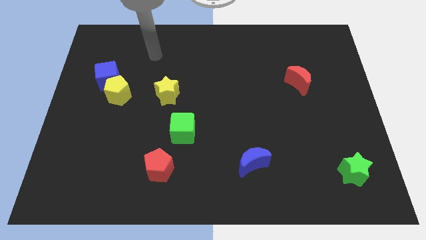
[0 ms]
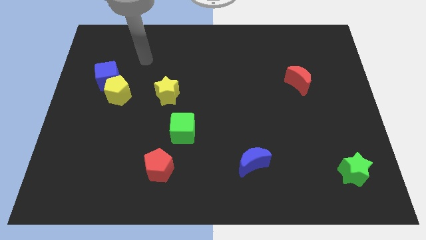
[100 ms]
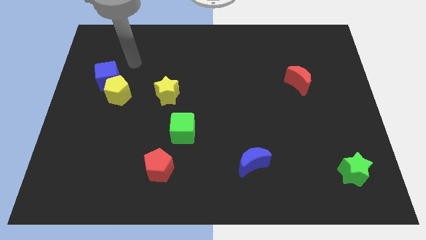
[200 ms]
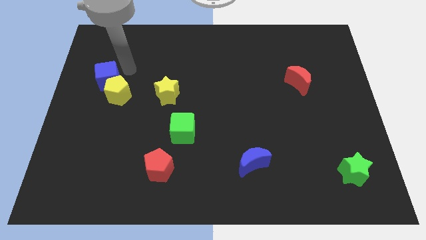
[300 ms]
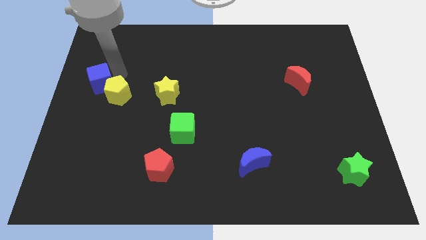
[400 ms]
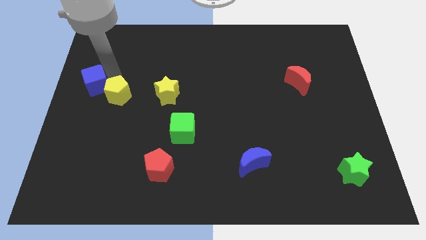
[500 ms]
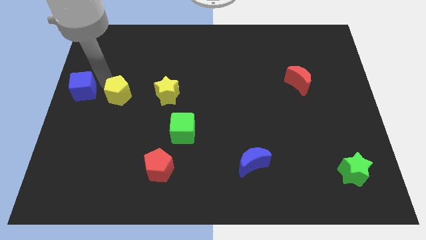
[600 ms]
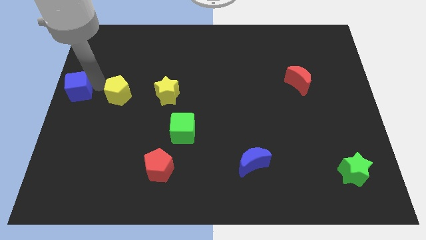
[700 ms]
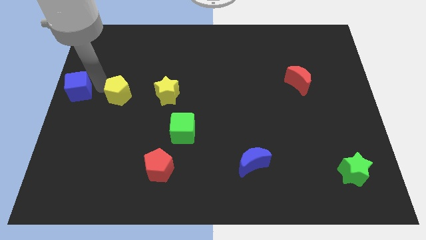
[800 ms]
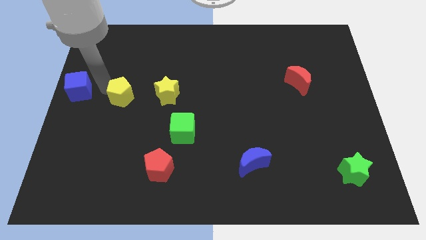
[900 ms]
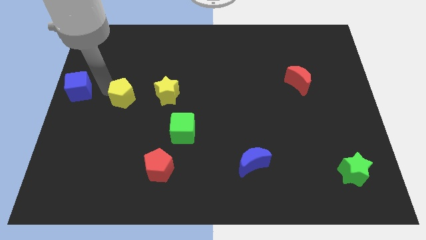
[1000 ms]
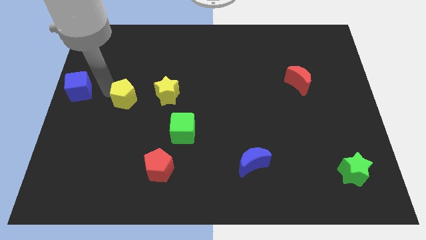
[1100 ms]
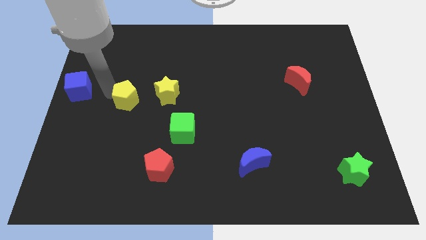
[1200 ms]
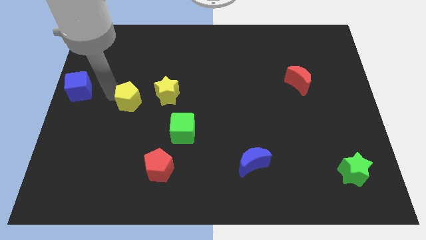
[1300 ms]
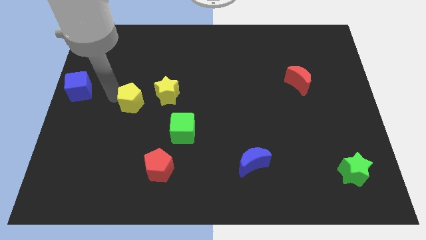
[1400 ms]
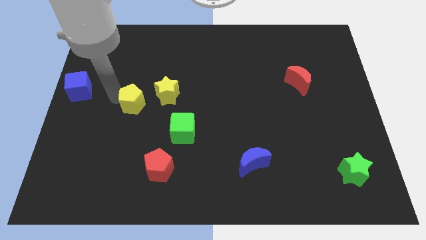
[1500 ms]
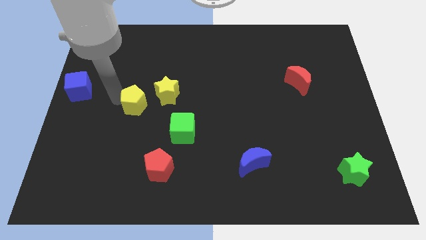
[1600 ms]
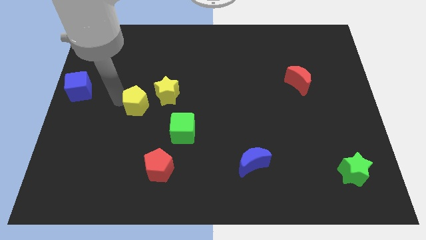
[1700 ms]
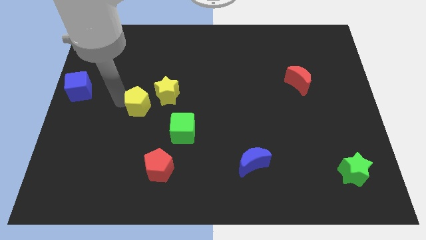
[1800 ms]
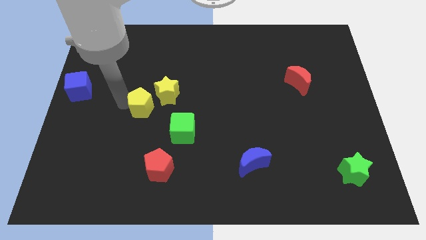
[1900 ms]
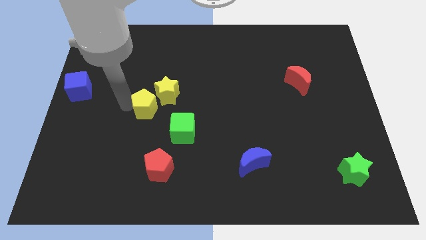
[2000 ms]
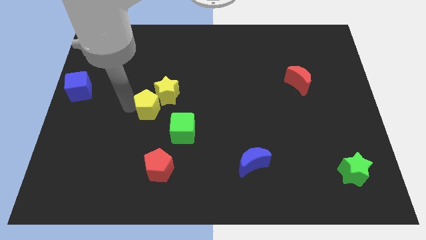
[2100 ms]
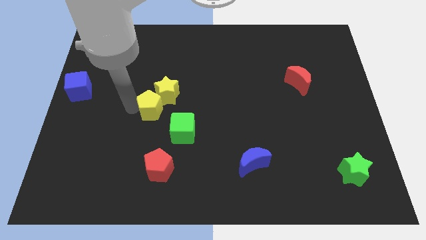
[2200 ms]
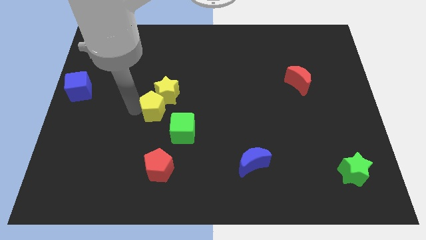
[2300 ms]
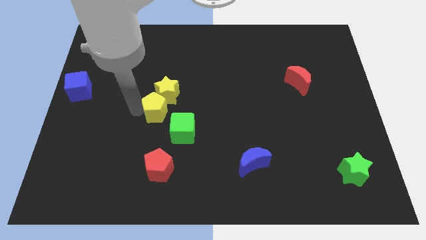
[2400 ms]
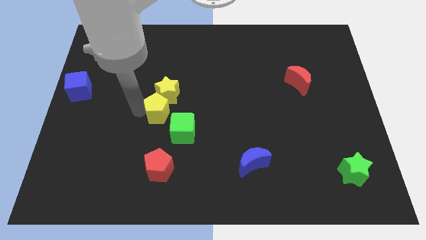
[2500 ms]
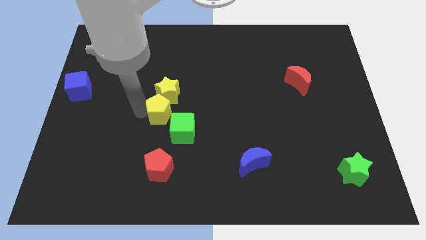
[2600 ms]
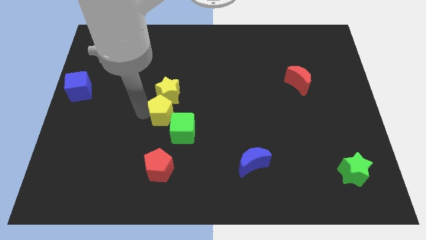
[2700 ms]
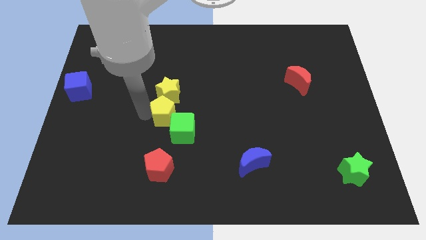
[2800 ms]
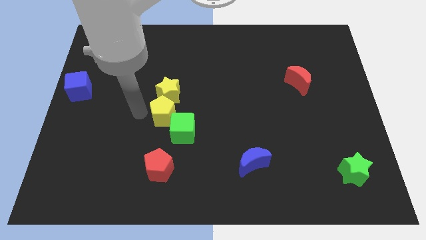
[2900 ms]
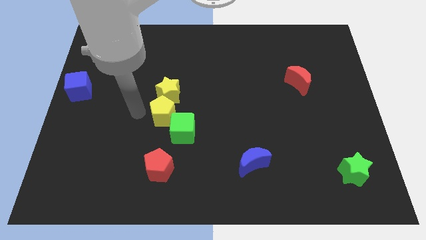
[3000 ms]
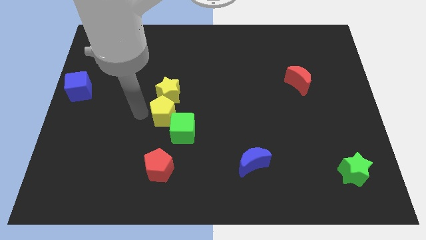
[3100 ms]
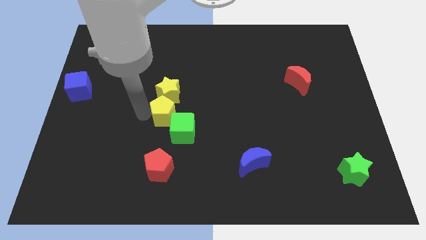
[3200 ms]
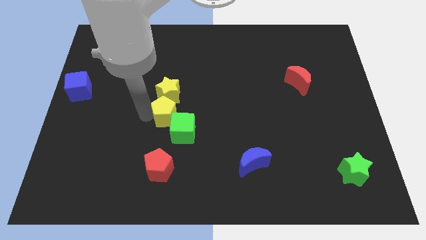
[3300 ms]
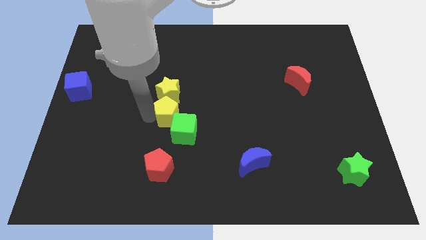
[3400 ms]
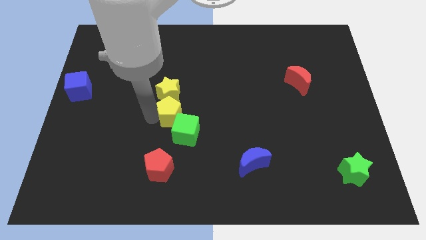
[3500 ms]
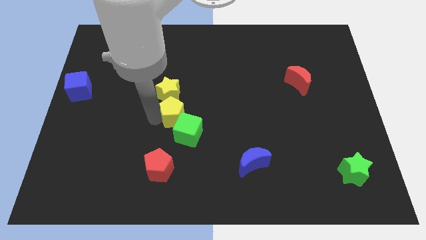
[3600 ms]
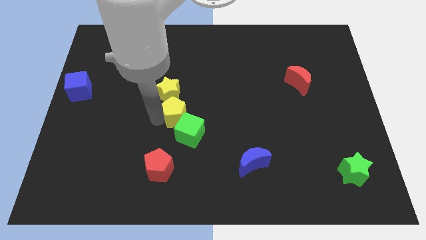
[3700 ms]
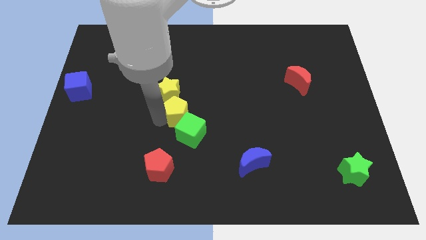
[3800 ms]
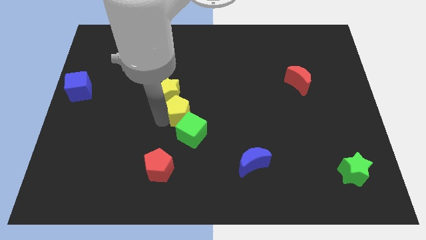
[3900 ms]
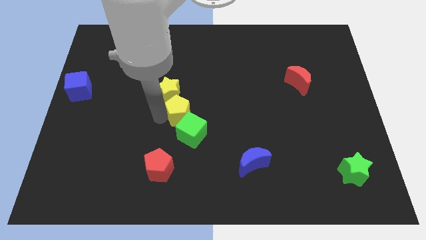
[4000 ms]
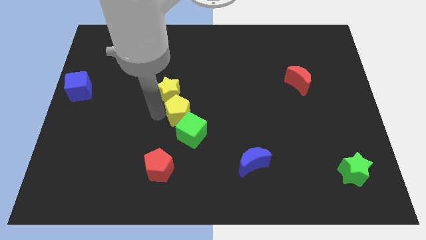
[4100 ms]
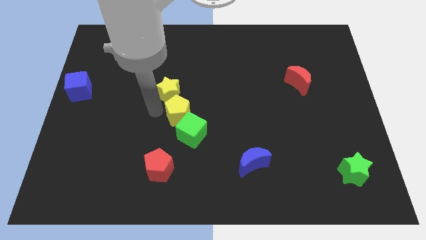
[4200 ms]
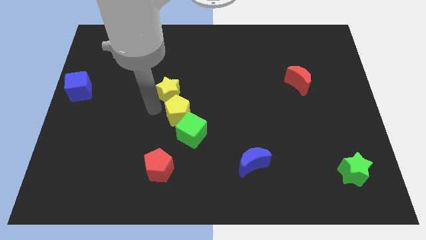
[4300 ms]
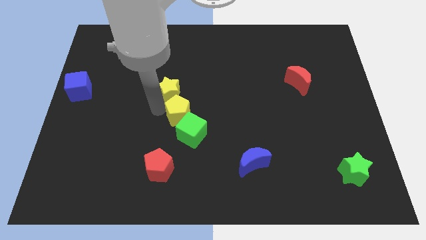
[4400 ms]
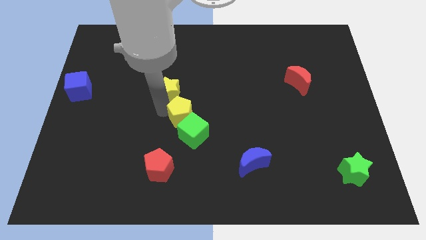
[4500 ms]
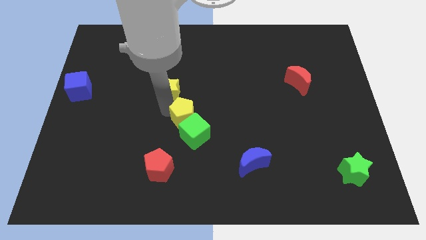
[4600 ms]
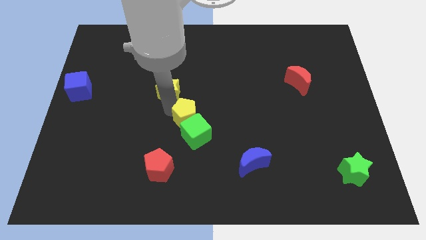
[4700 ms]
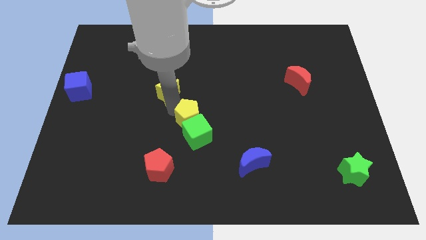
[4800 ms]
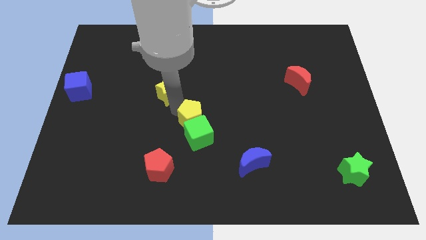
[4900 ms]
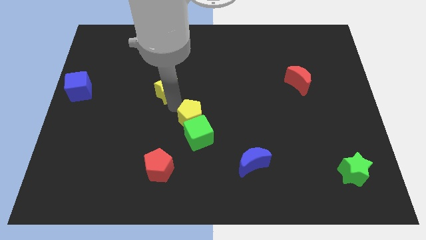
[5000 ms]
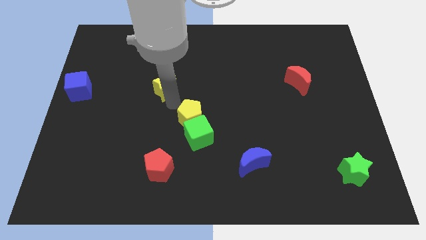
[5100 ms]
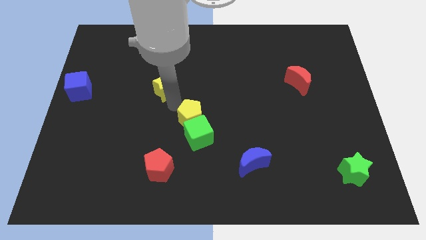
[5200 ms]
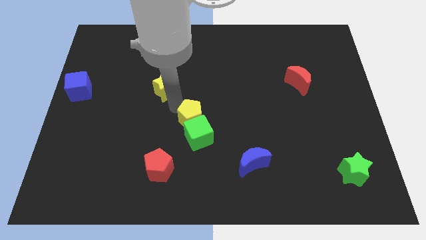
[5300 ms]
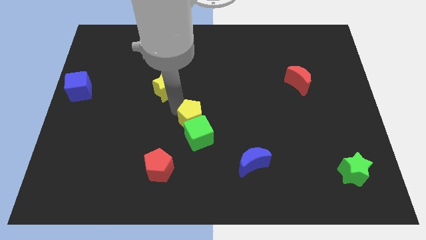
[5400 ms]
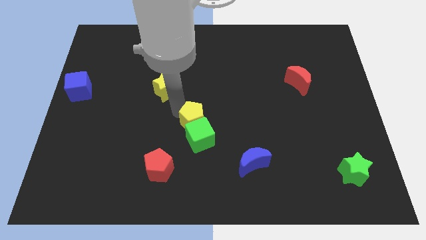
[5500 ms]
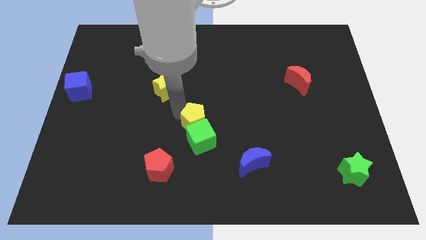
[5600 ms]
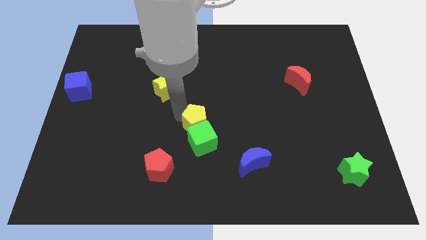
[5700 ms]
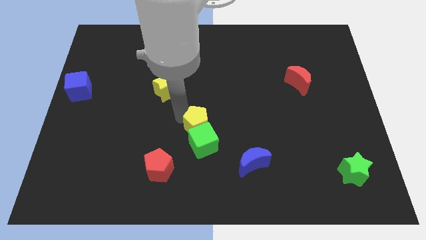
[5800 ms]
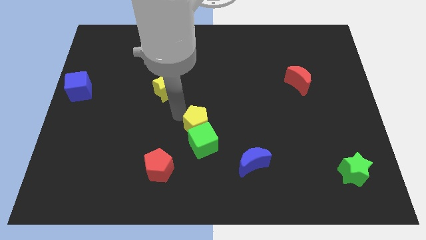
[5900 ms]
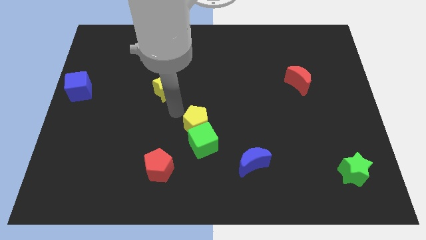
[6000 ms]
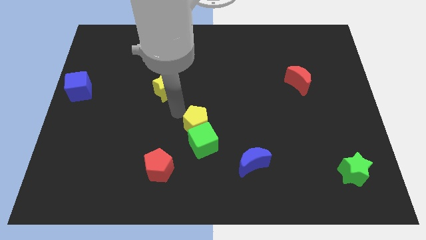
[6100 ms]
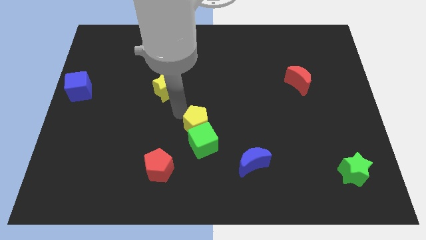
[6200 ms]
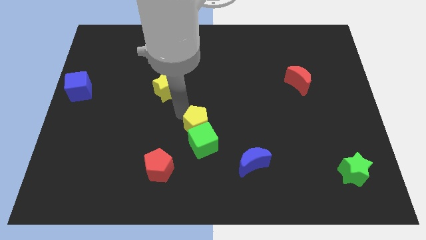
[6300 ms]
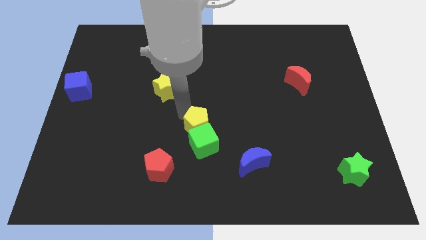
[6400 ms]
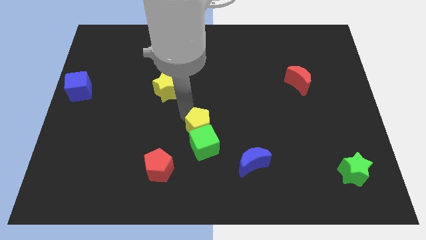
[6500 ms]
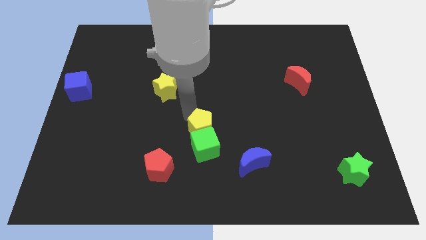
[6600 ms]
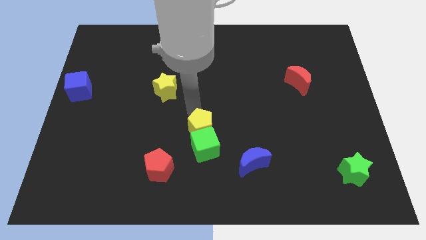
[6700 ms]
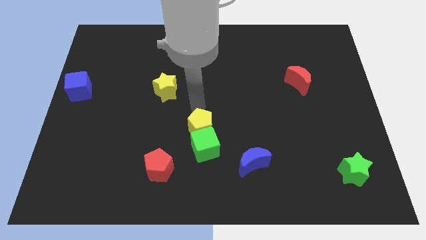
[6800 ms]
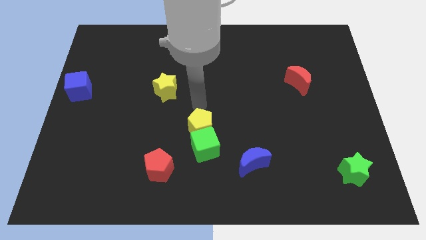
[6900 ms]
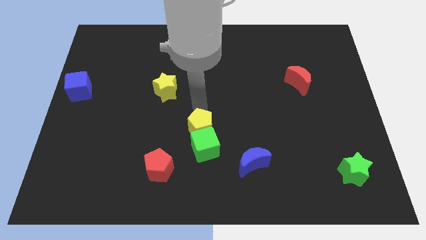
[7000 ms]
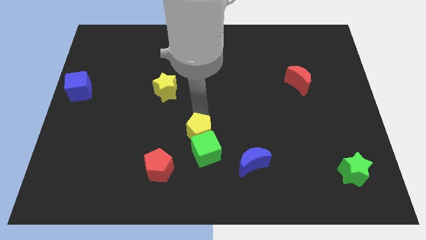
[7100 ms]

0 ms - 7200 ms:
push the yellow pentagon downwards and right

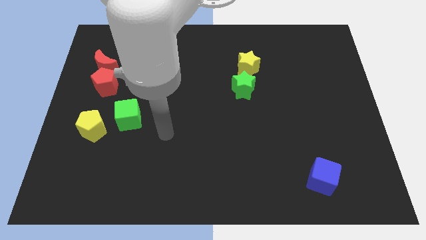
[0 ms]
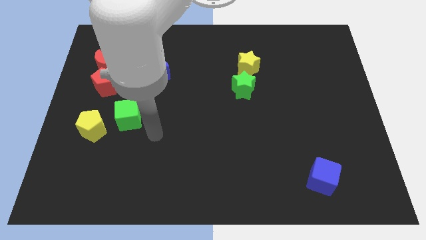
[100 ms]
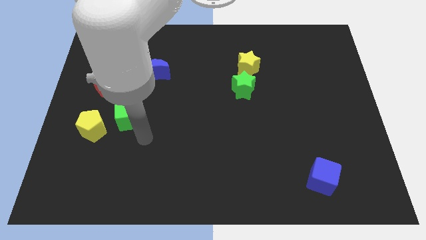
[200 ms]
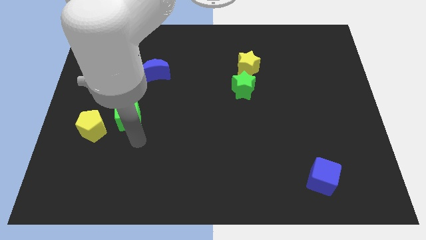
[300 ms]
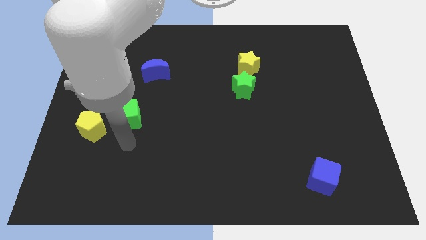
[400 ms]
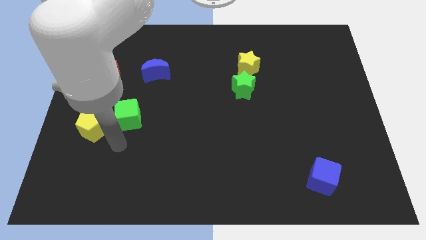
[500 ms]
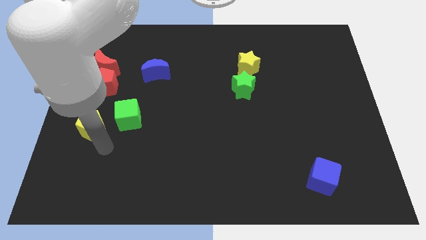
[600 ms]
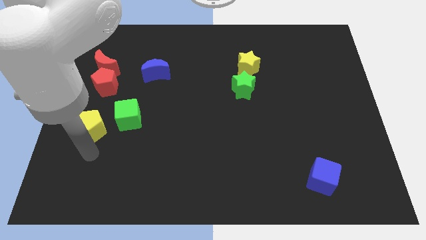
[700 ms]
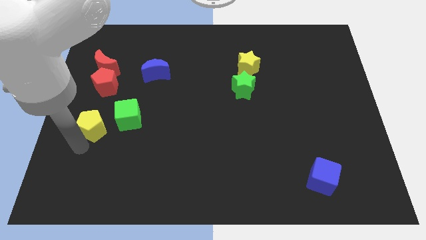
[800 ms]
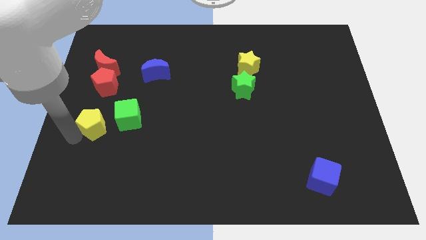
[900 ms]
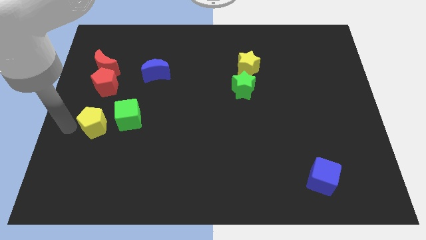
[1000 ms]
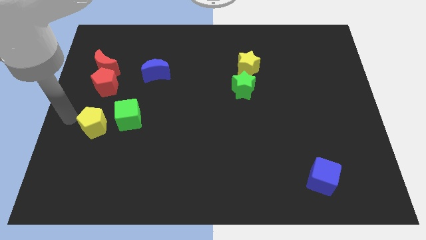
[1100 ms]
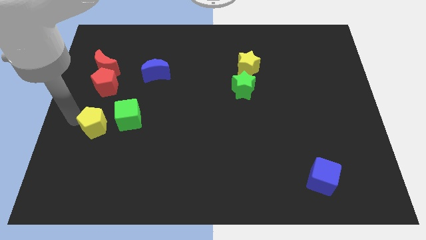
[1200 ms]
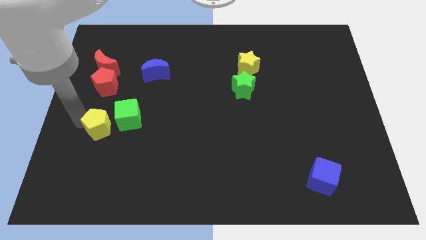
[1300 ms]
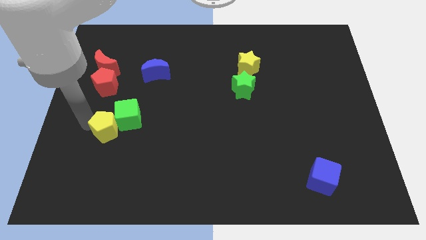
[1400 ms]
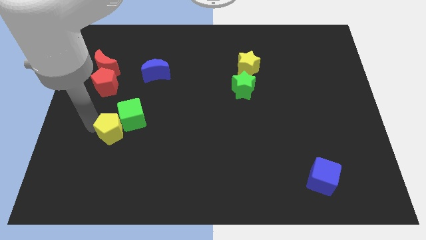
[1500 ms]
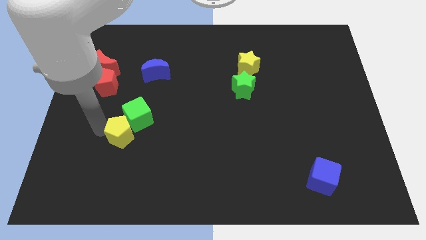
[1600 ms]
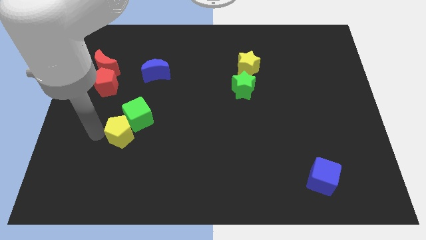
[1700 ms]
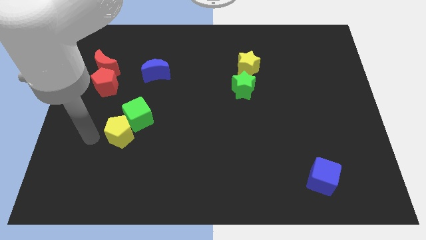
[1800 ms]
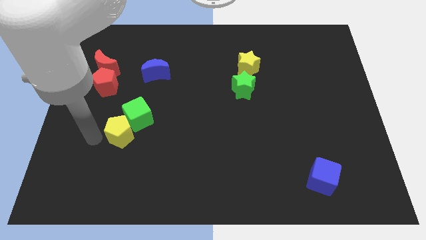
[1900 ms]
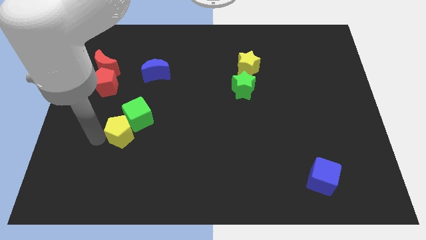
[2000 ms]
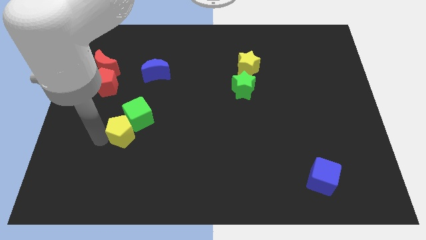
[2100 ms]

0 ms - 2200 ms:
slightly slide the yellow pentagon right
